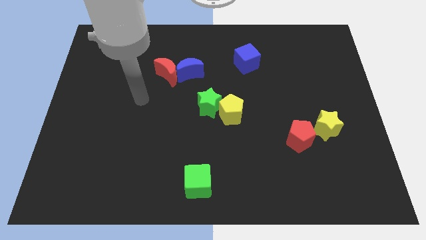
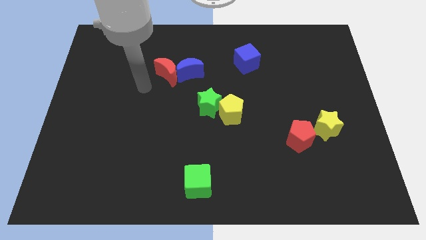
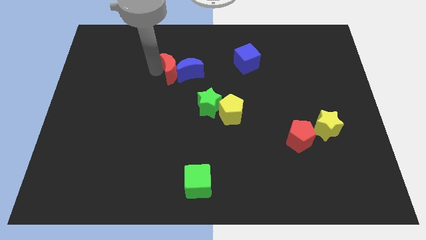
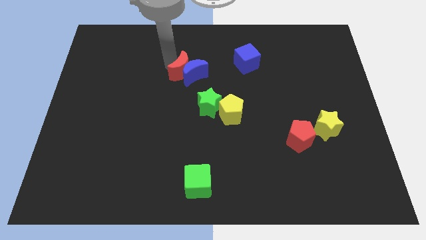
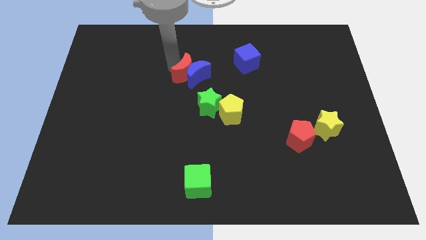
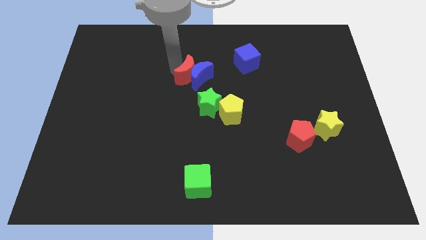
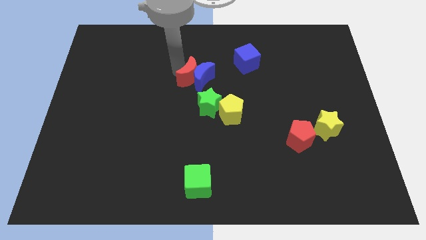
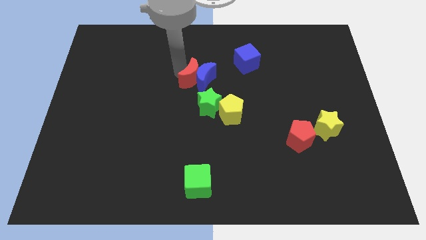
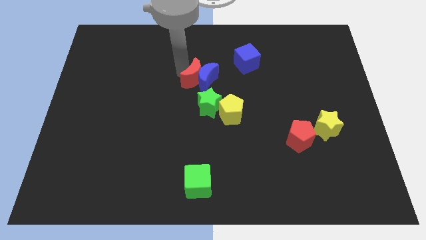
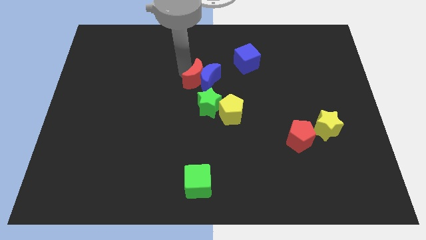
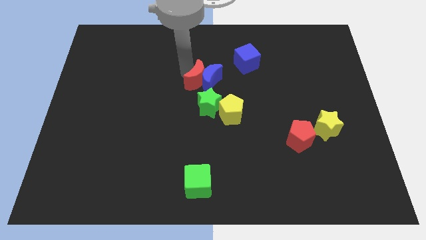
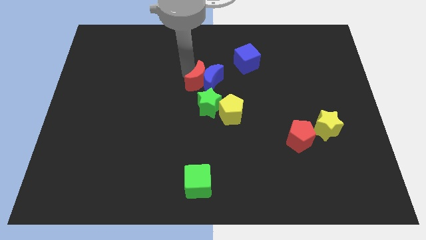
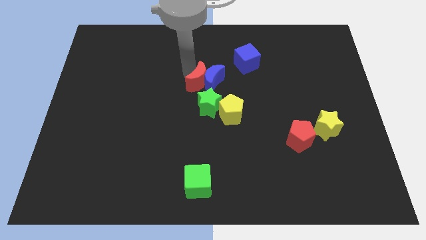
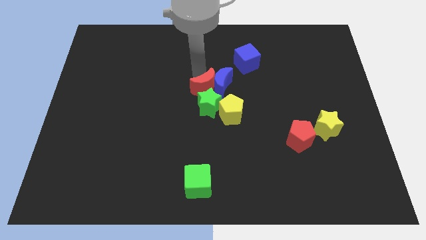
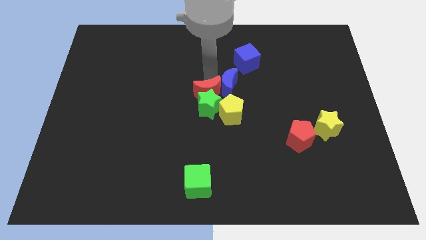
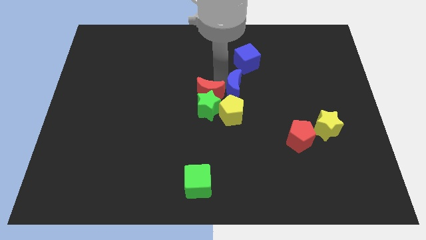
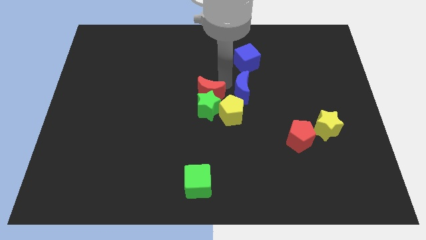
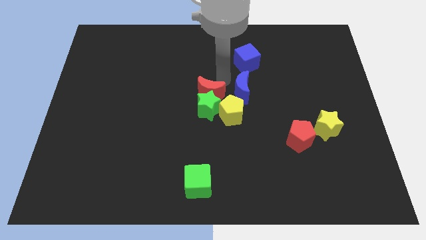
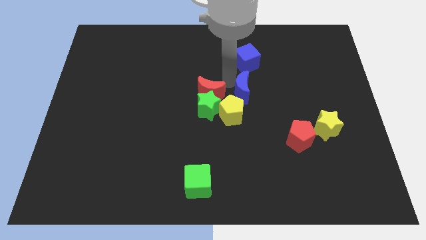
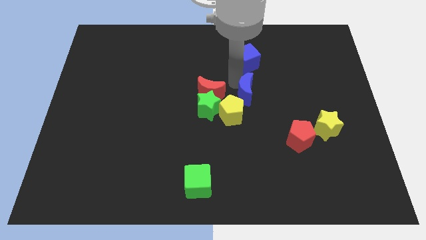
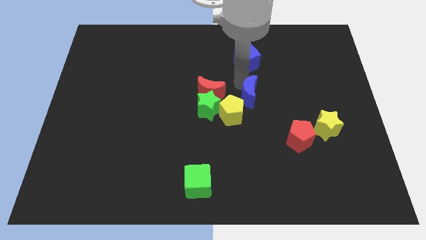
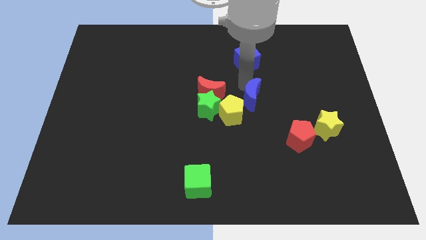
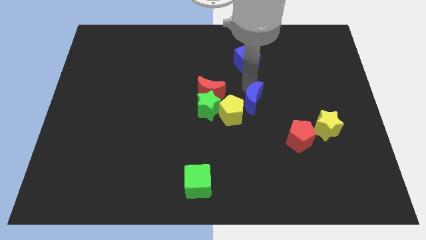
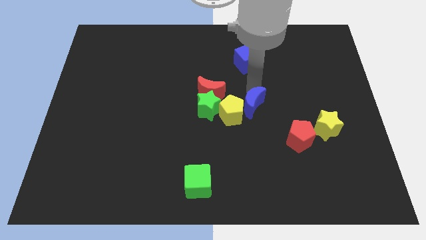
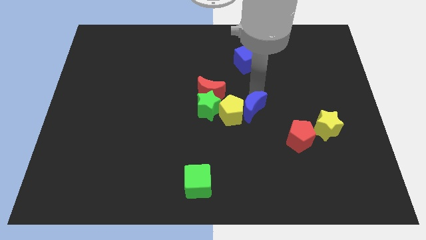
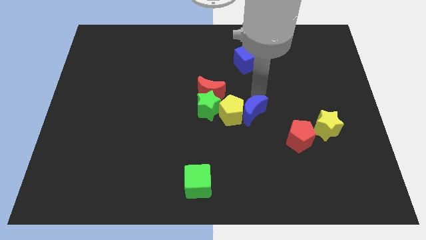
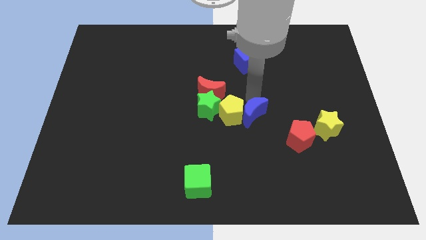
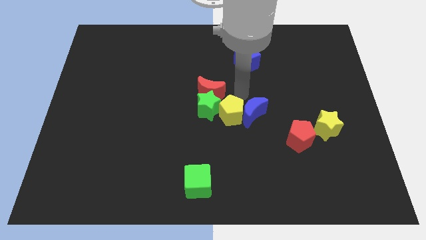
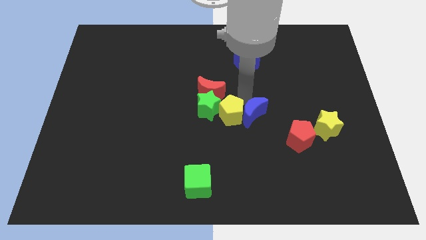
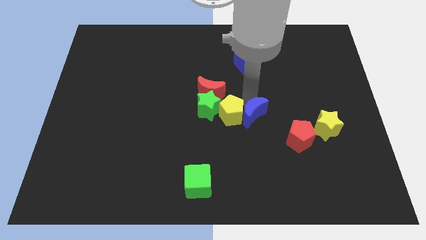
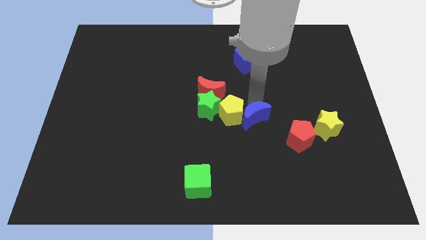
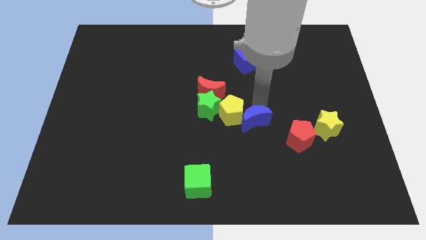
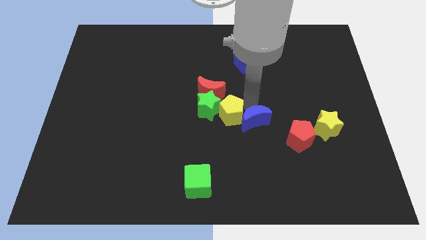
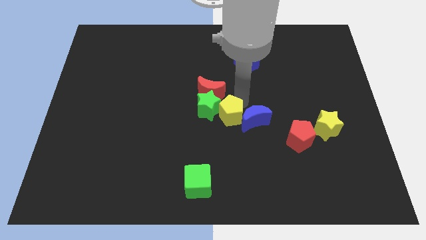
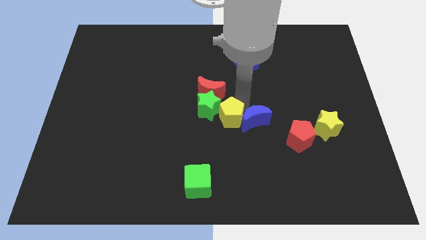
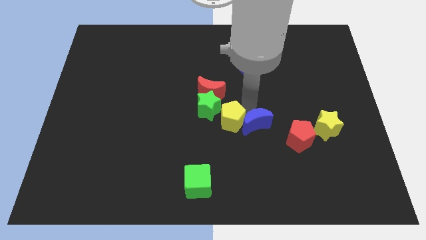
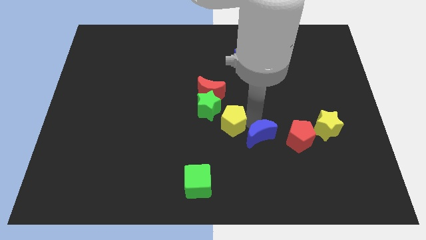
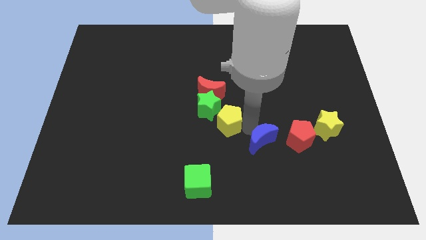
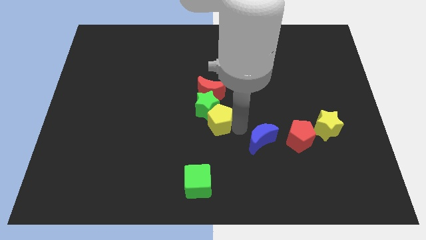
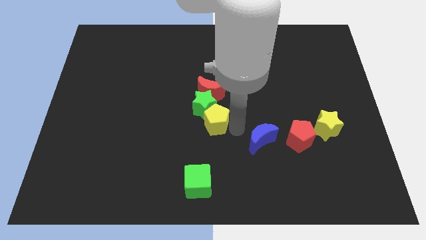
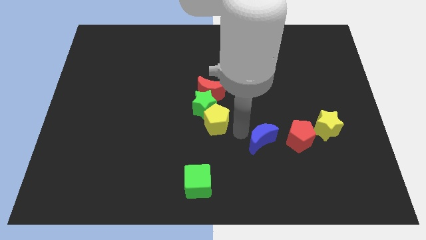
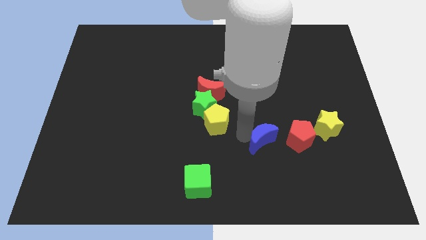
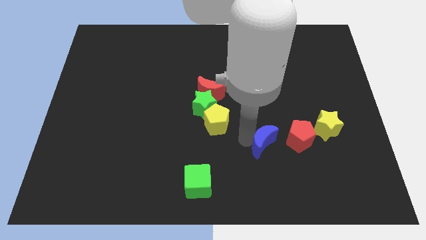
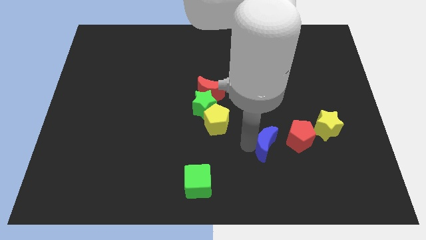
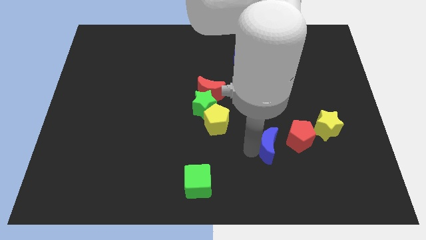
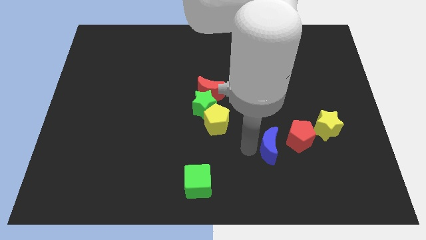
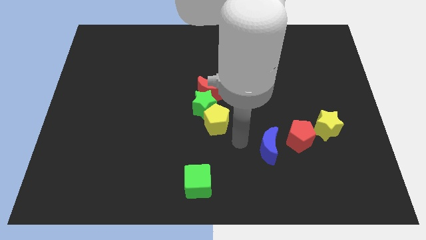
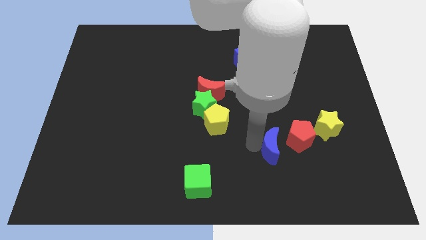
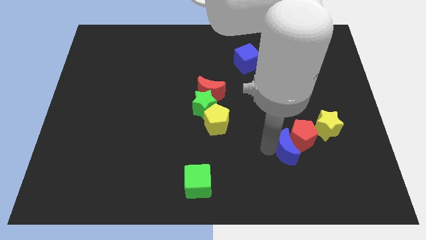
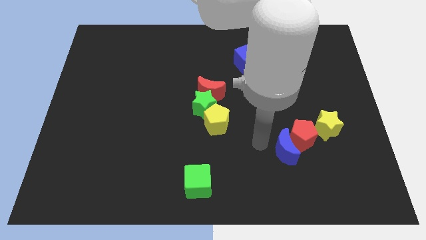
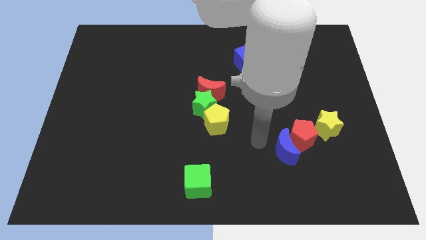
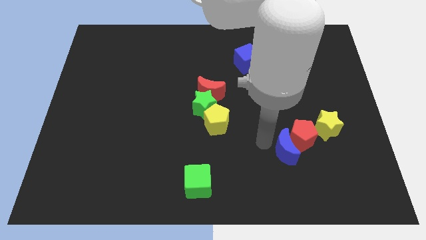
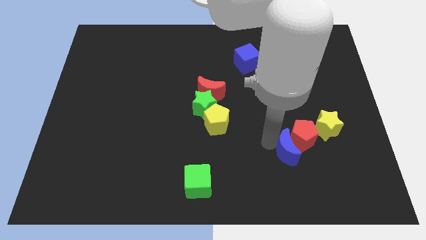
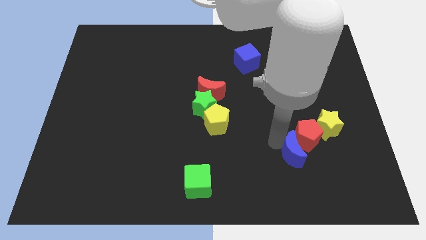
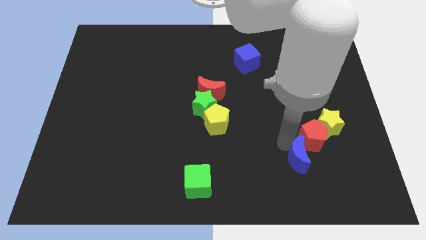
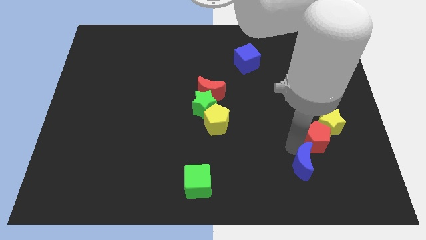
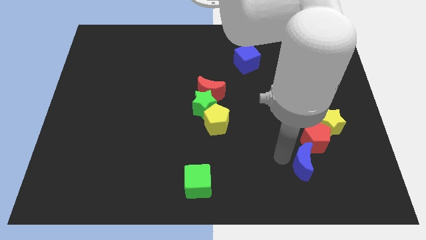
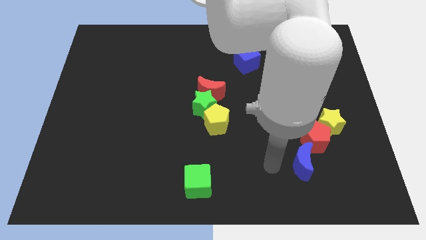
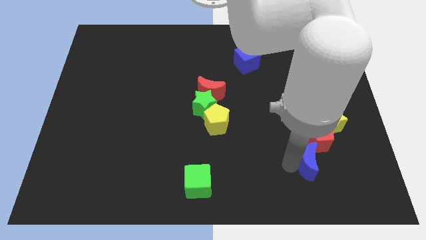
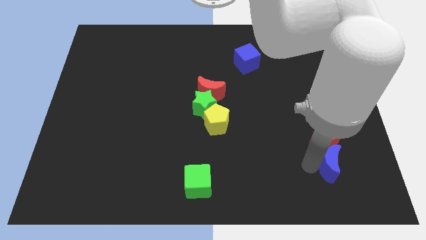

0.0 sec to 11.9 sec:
push the blue moon to the bottom right side of the red pentagon

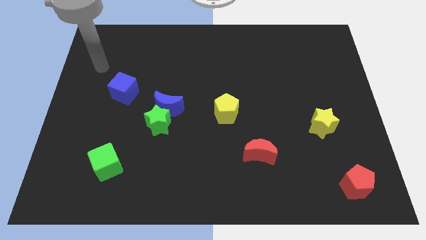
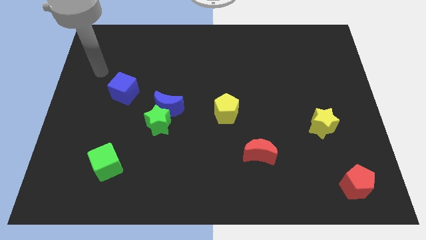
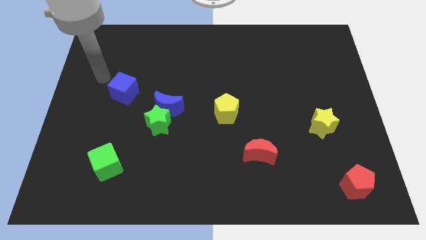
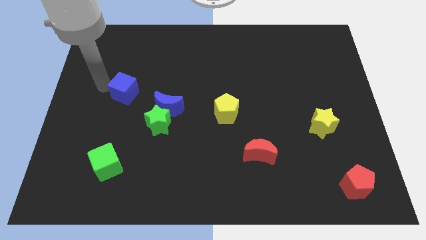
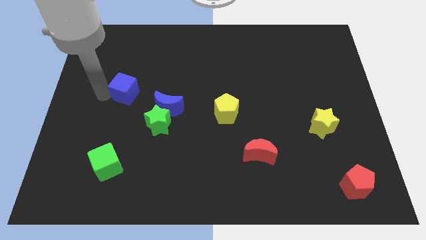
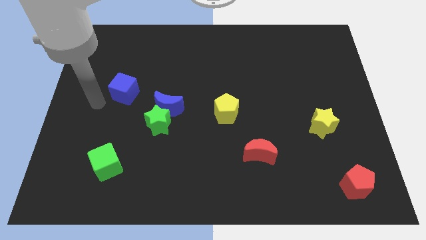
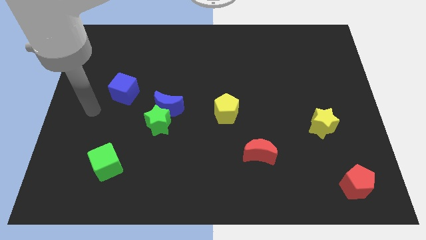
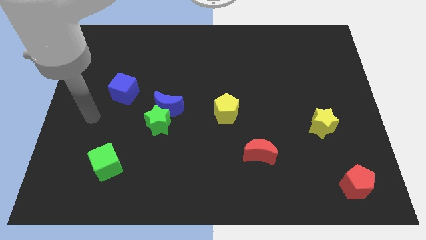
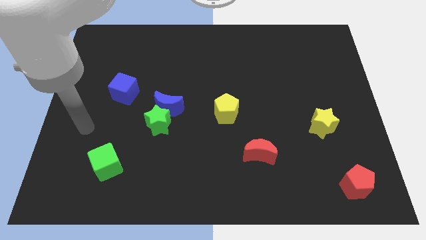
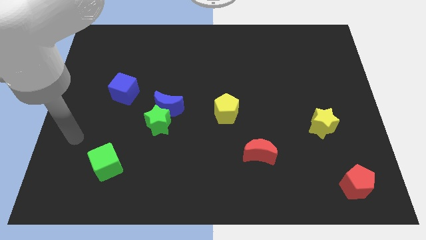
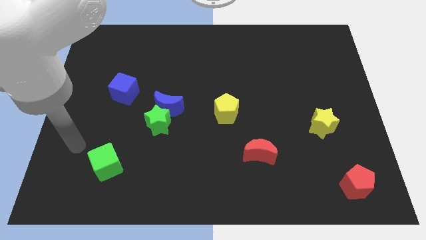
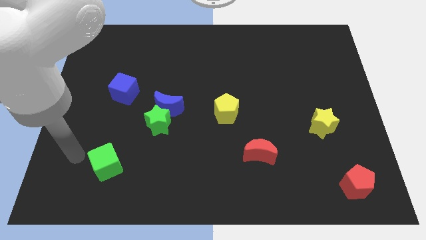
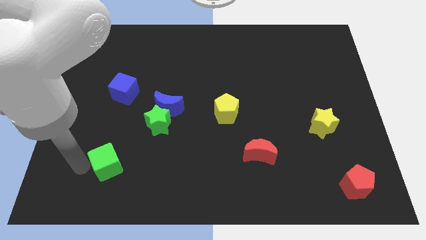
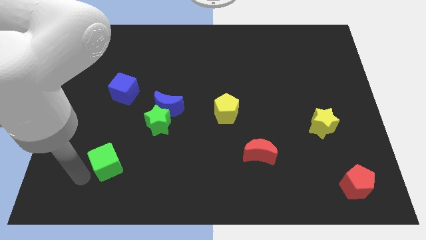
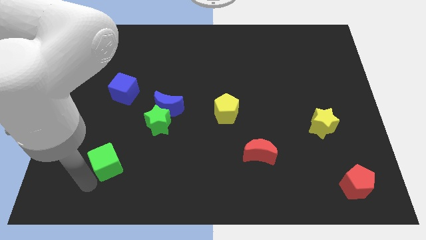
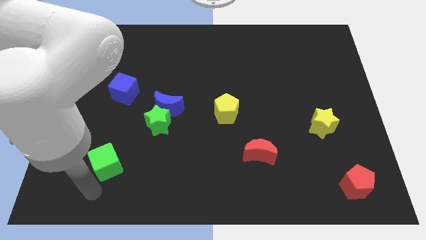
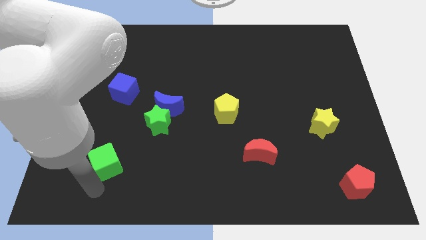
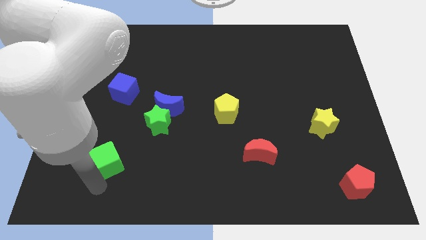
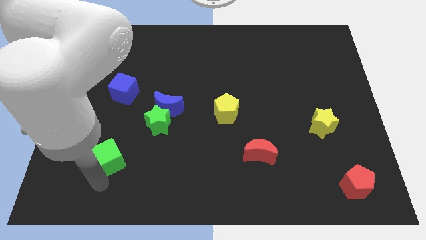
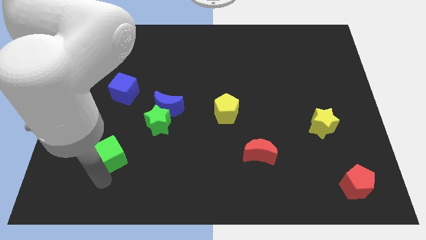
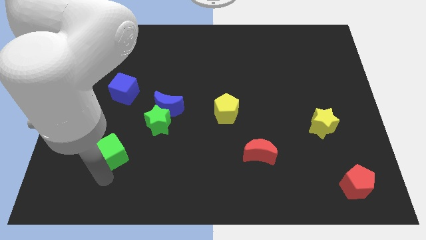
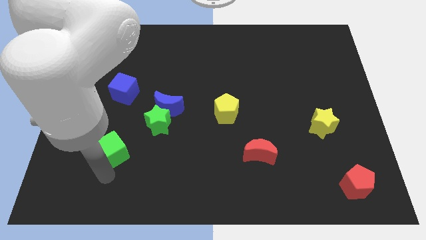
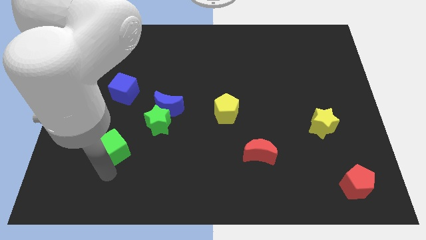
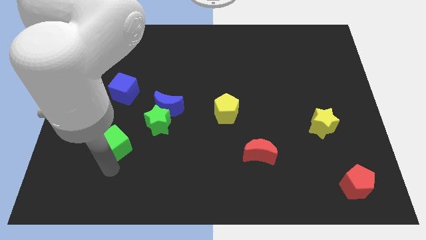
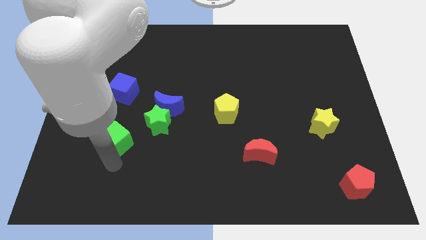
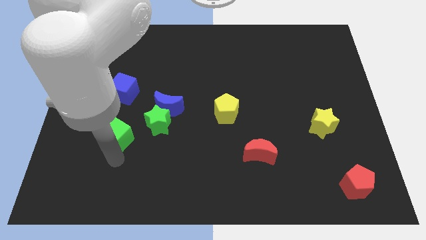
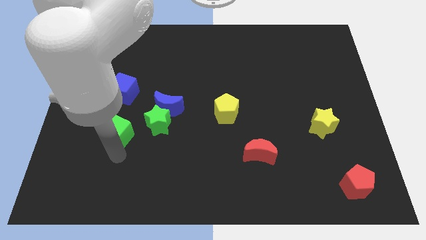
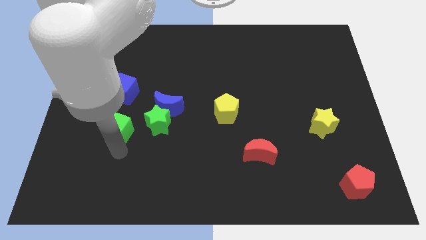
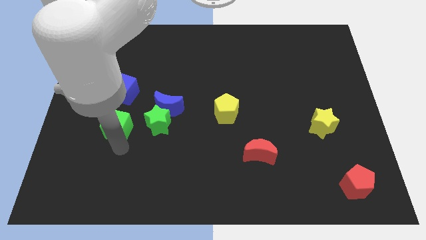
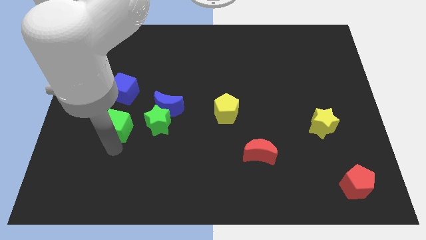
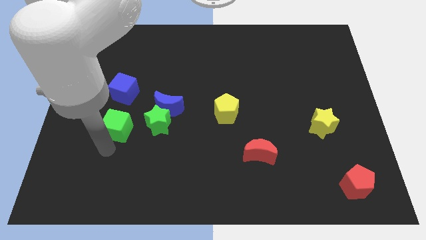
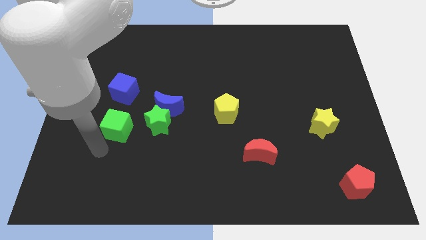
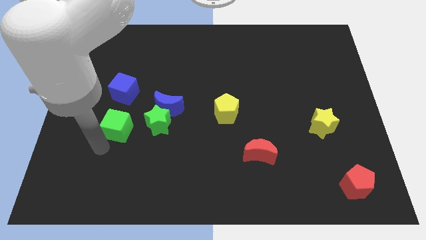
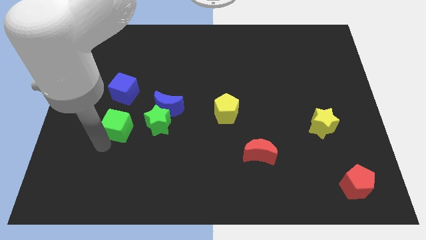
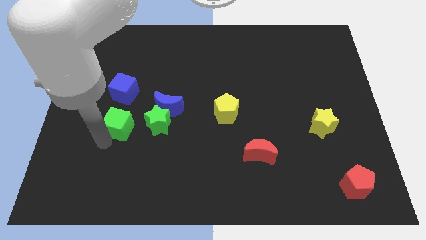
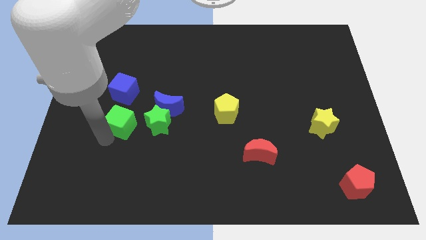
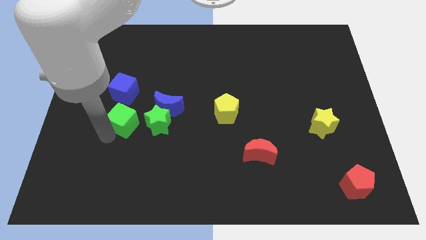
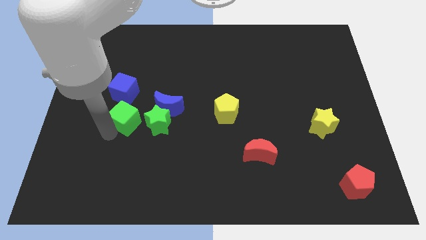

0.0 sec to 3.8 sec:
slide the green cube diagonally up and to the left of the green star
